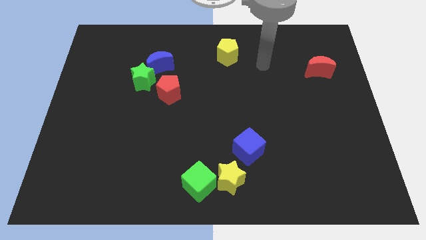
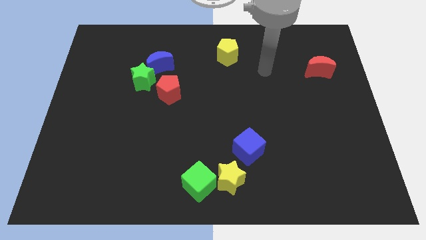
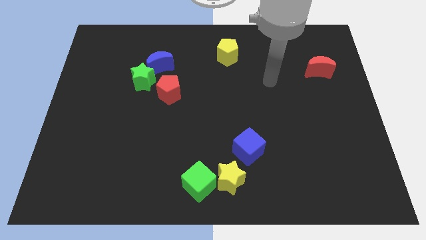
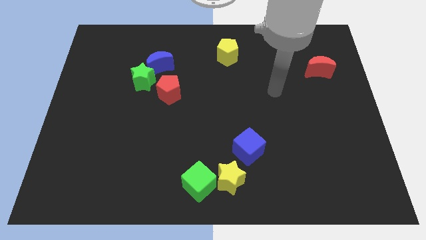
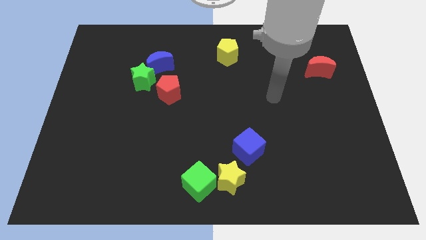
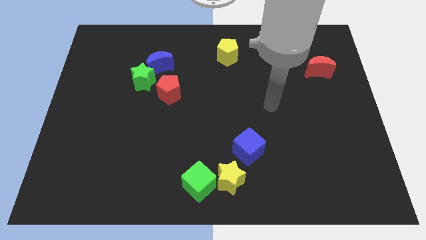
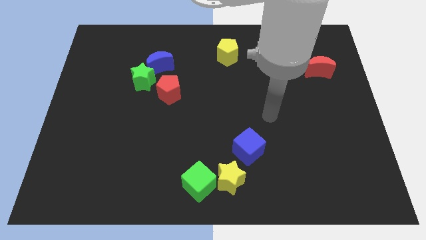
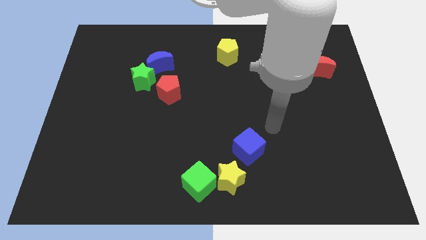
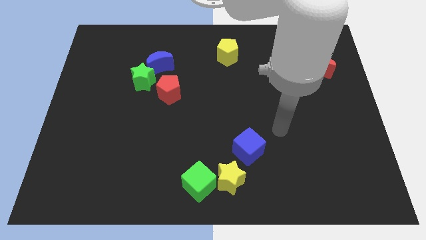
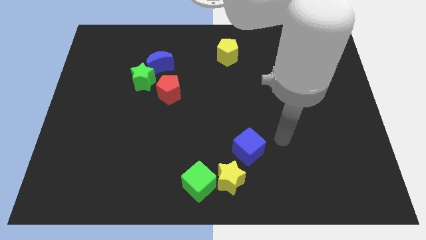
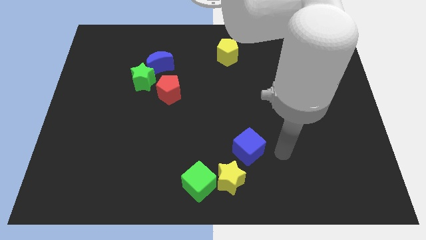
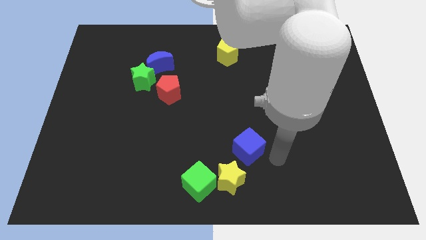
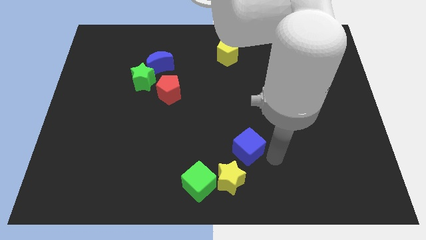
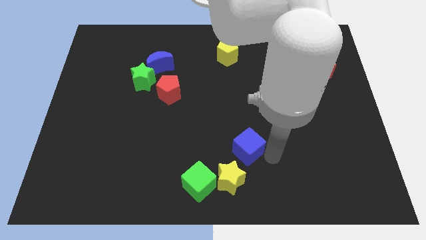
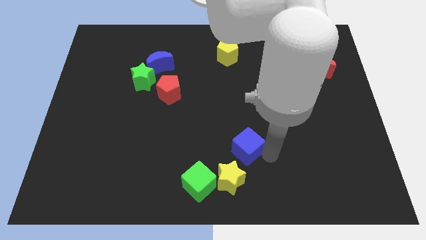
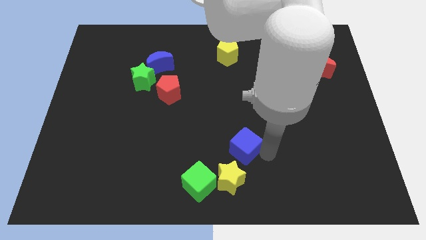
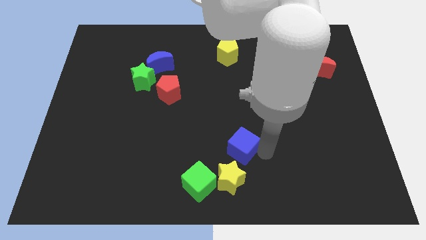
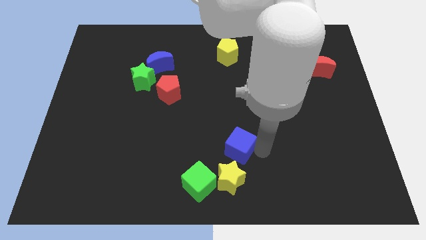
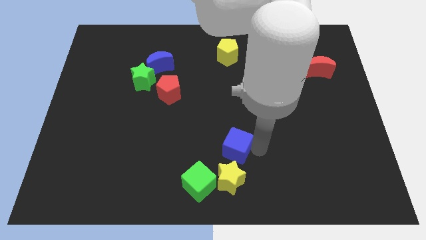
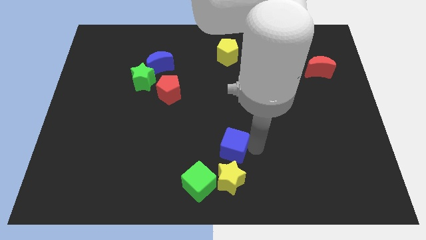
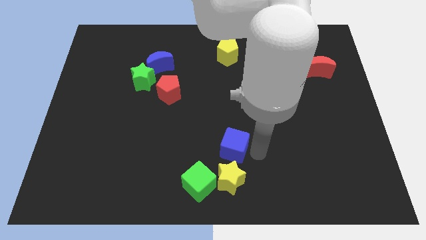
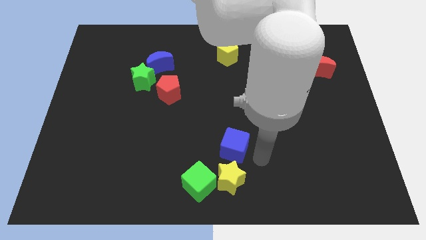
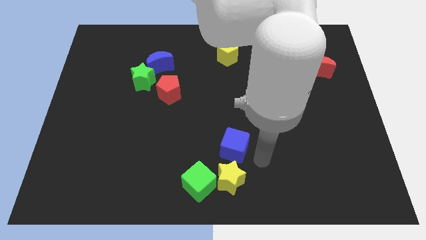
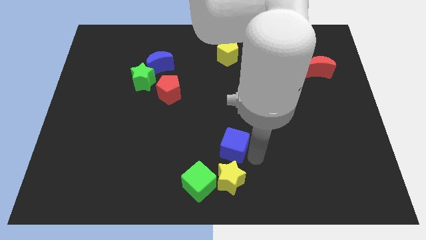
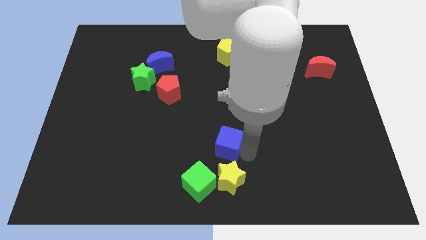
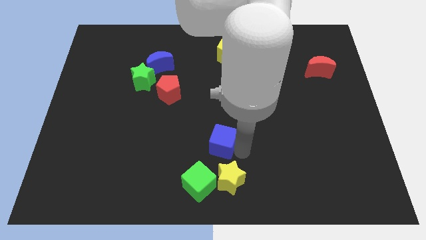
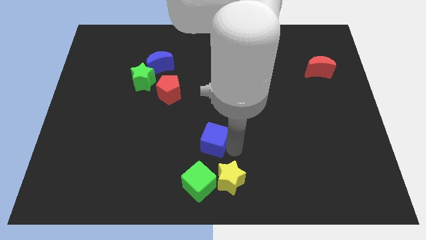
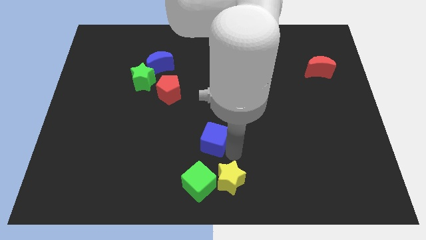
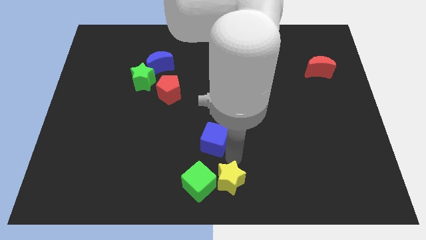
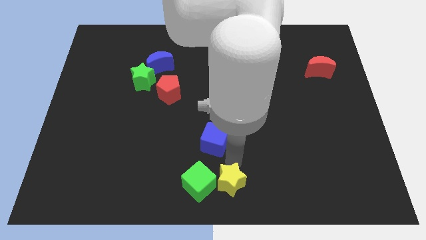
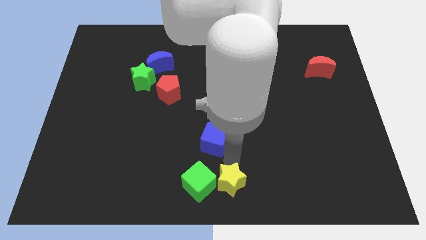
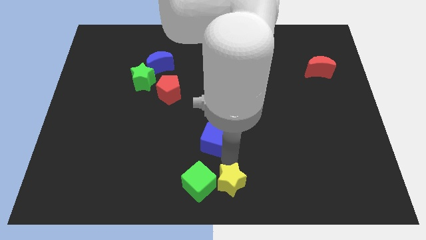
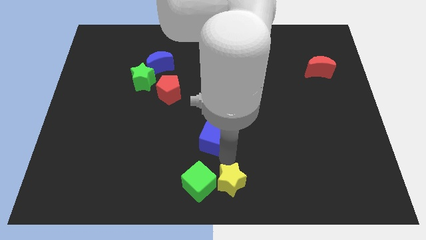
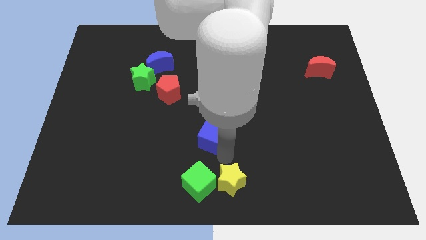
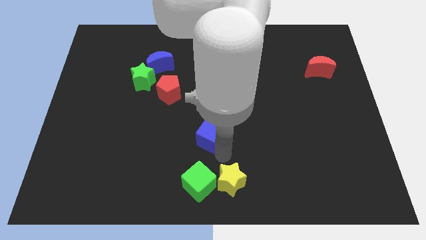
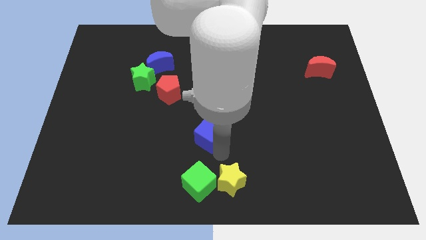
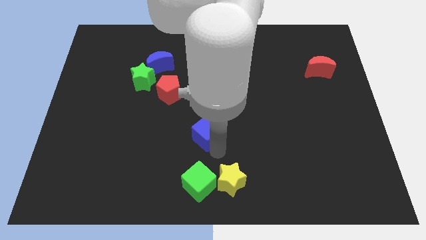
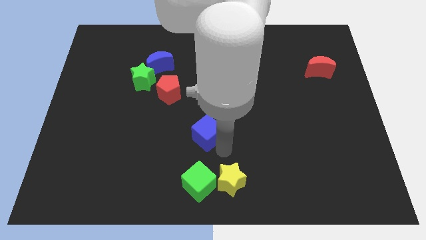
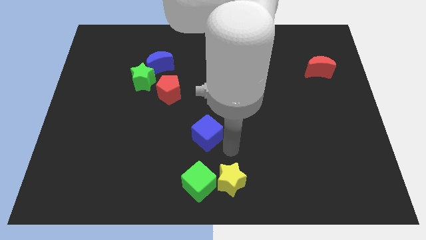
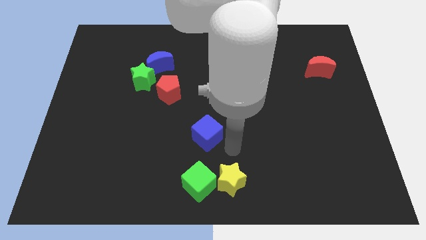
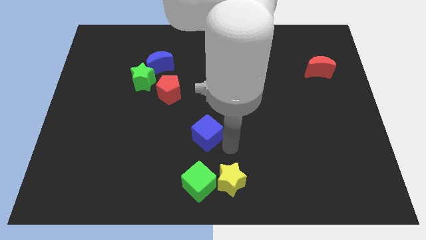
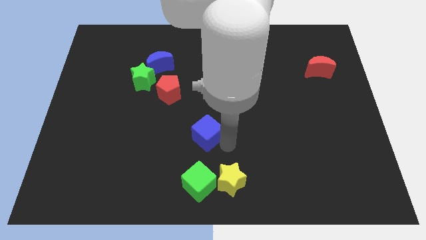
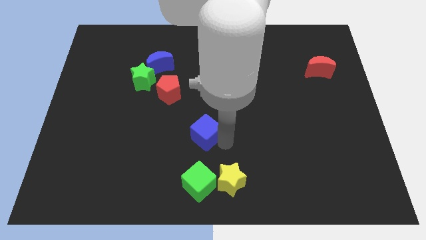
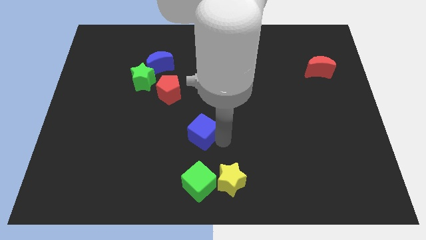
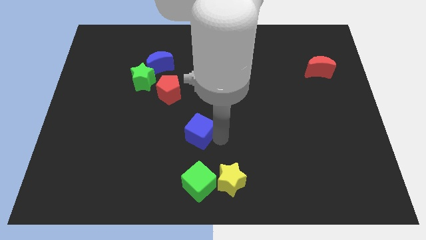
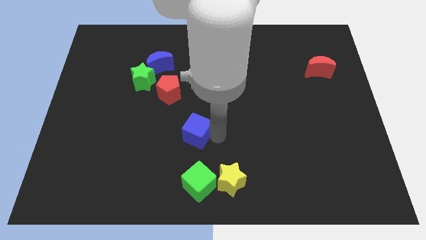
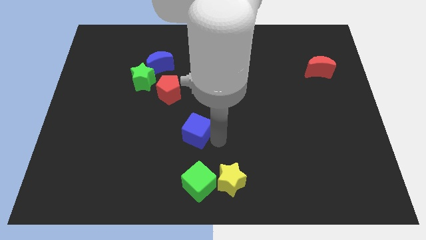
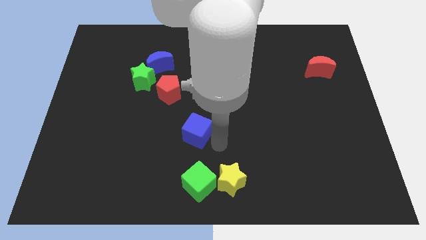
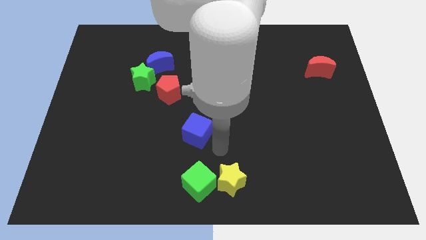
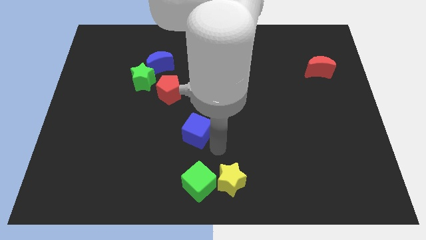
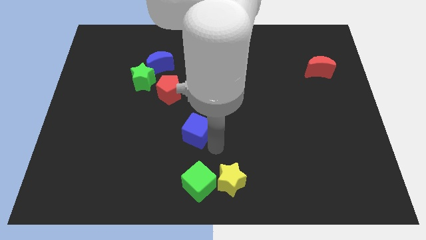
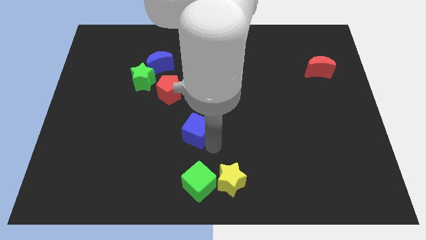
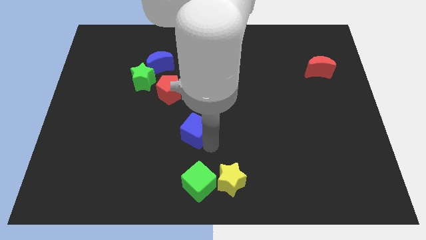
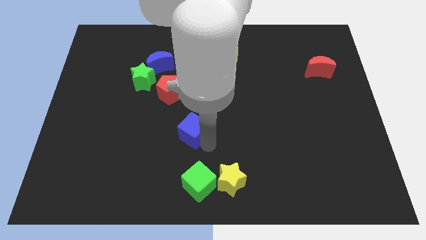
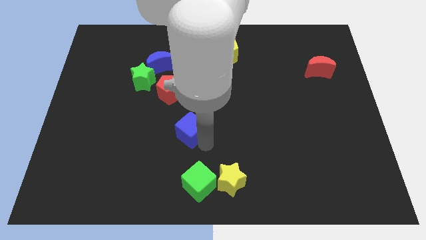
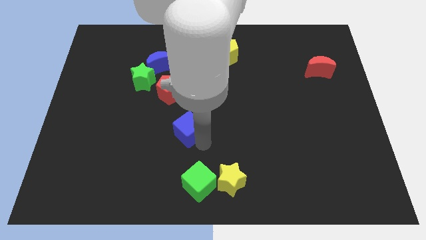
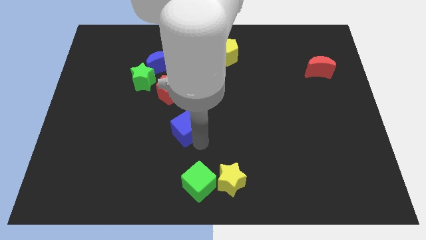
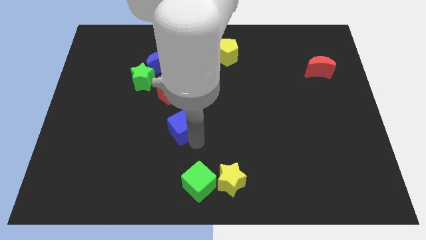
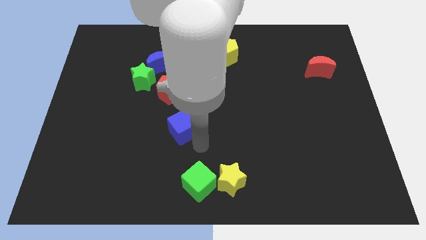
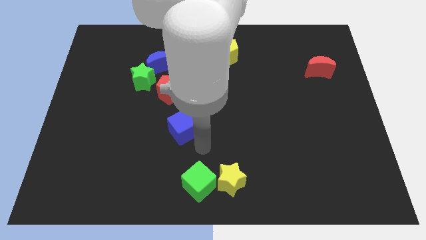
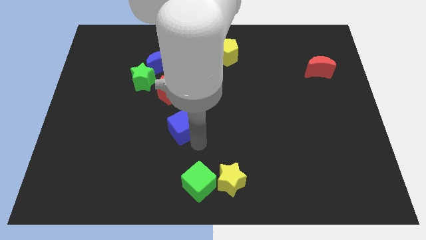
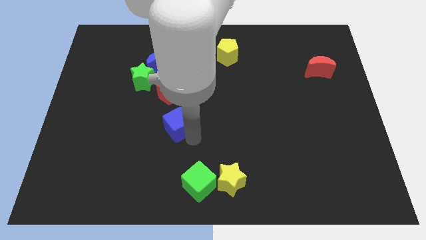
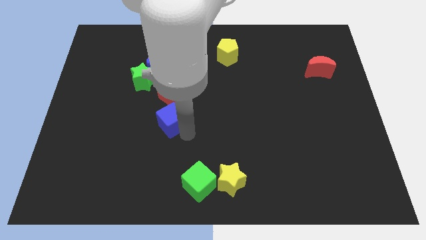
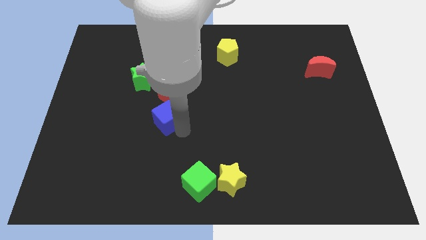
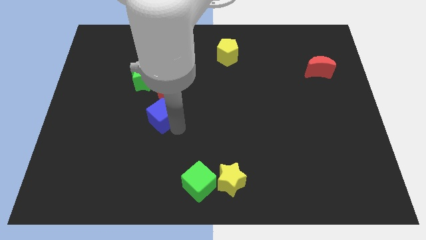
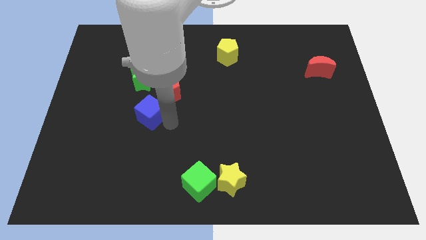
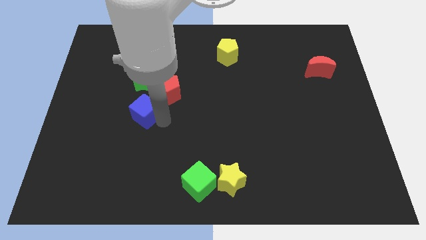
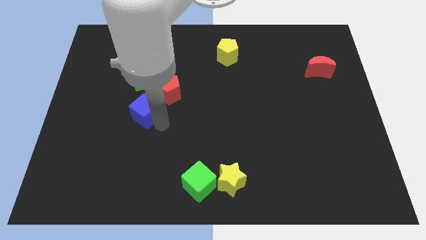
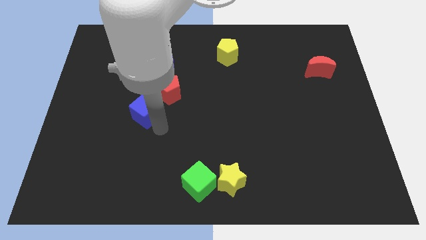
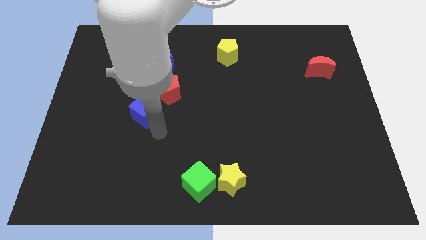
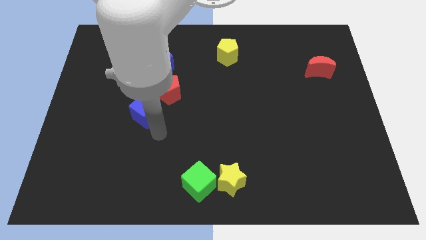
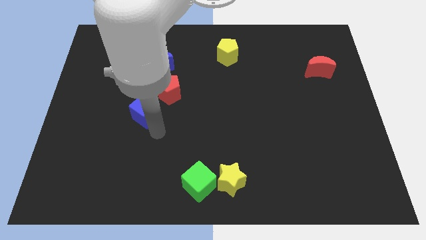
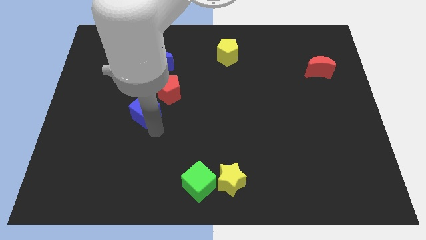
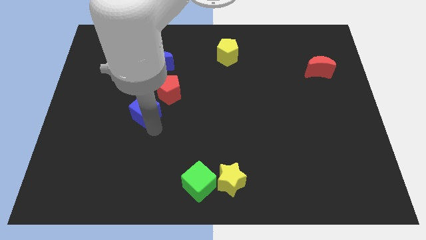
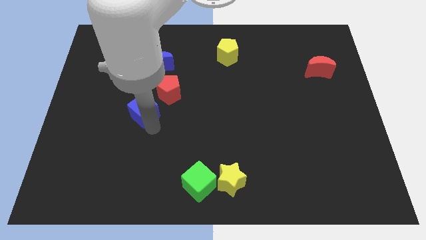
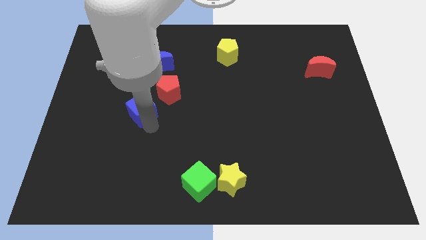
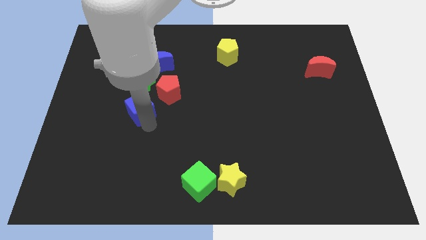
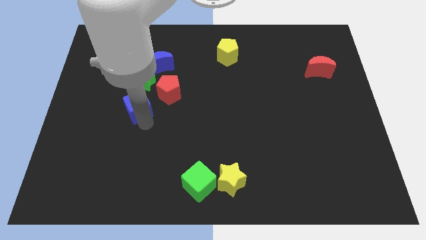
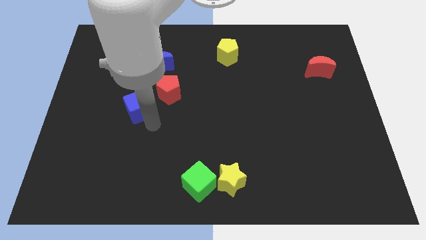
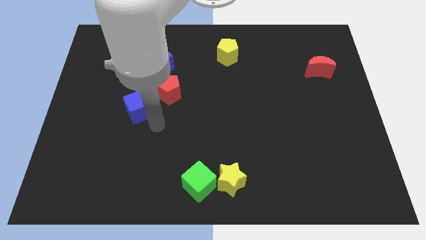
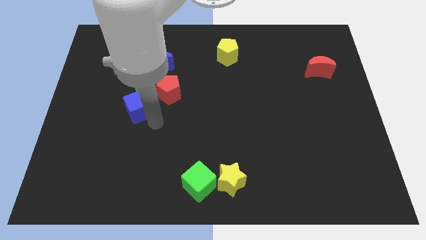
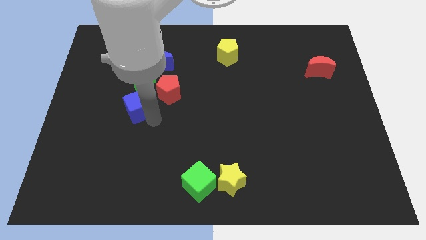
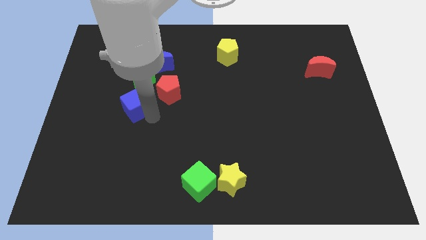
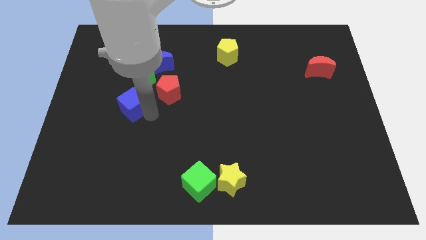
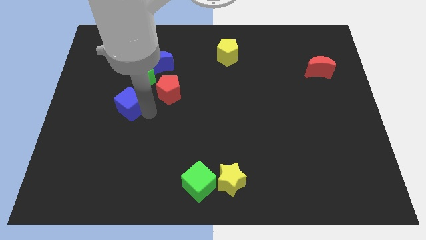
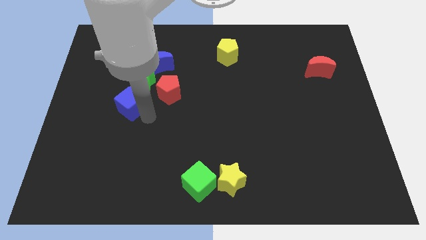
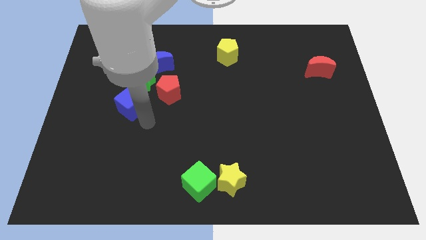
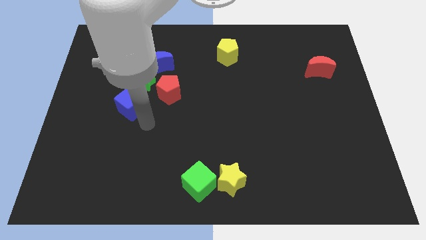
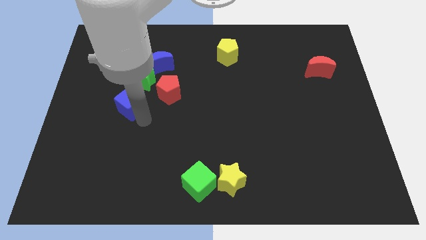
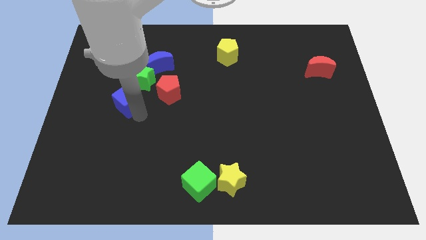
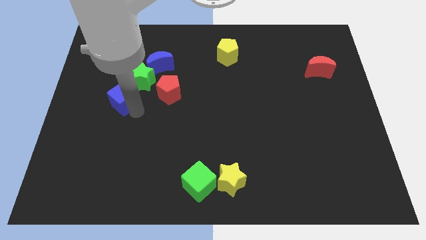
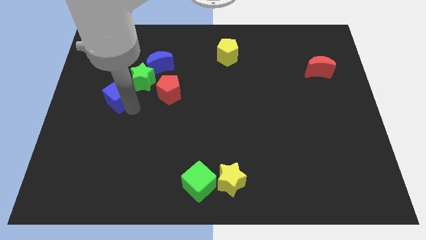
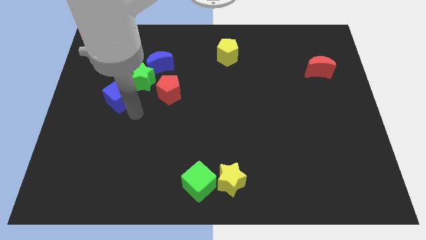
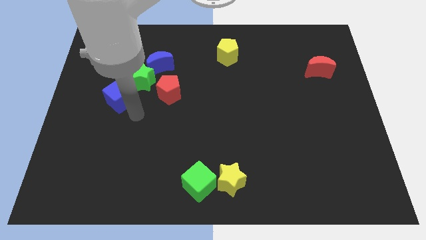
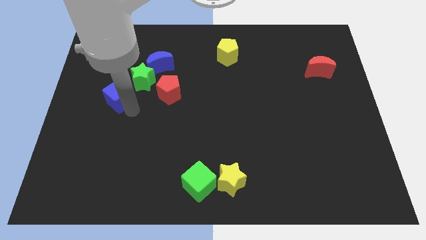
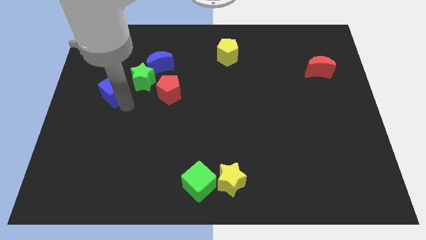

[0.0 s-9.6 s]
put the blue cube left of the green star
